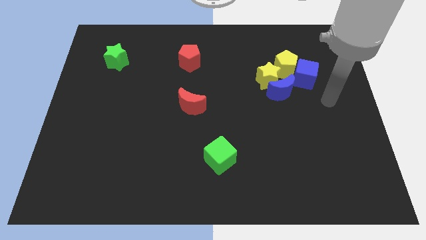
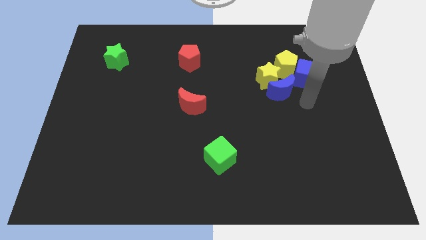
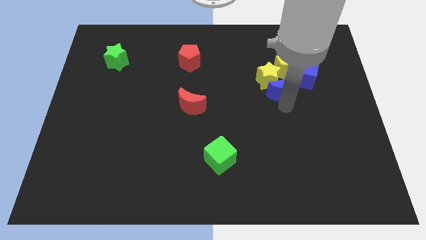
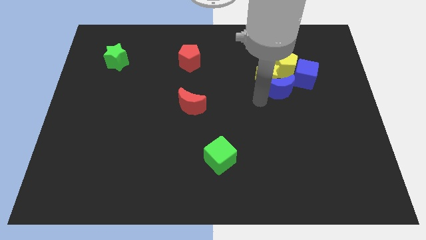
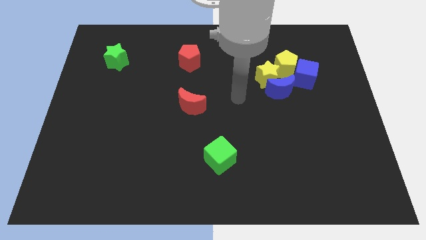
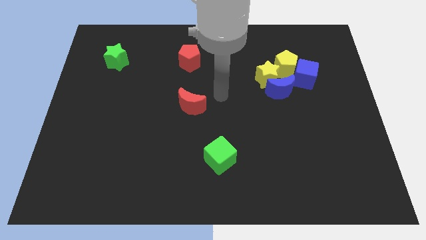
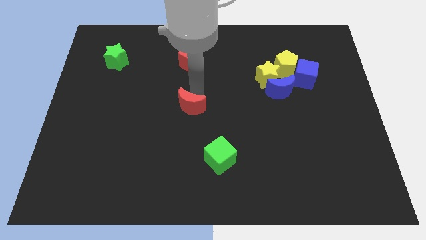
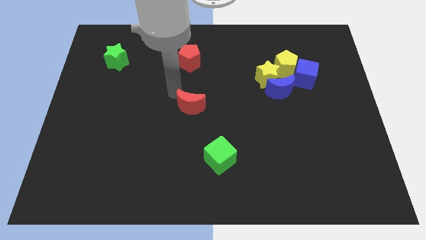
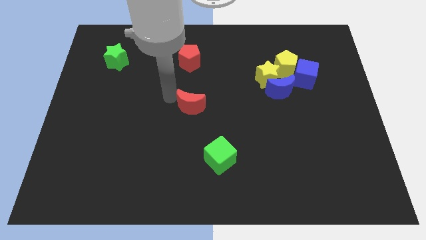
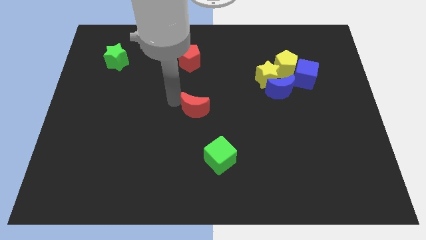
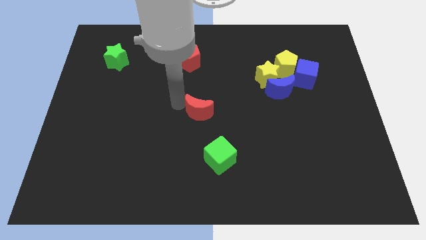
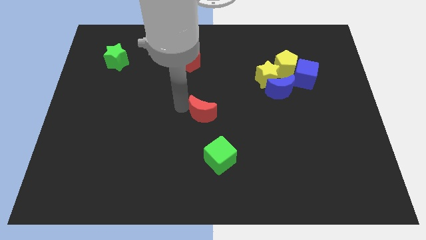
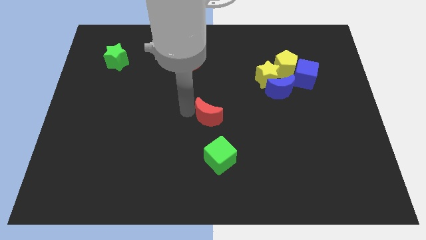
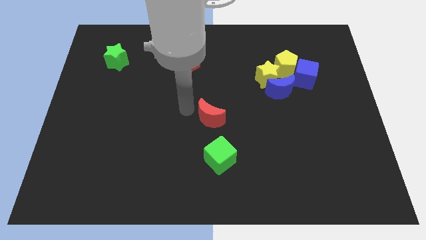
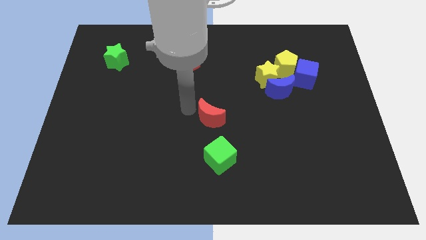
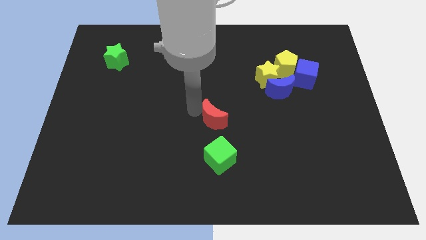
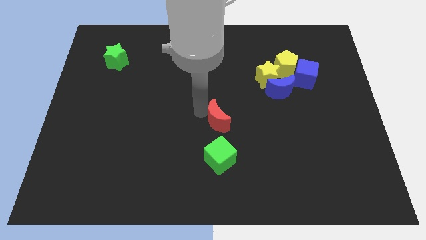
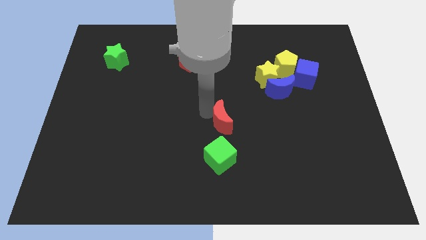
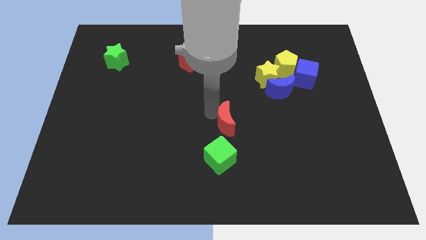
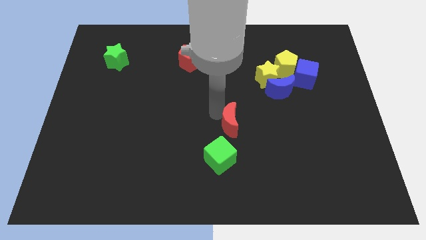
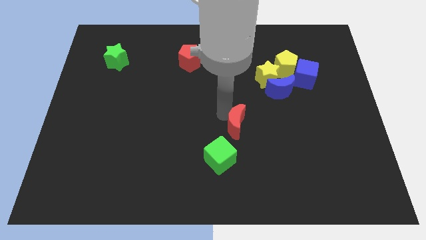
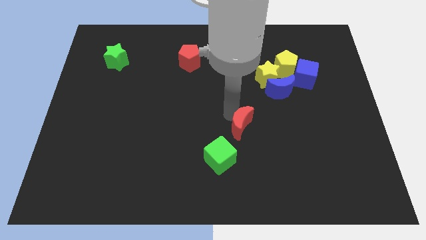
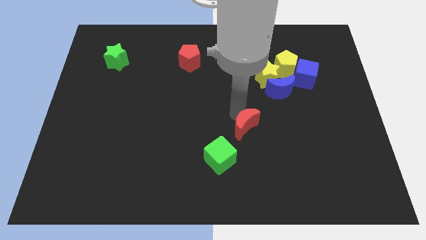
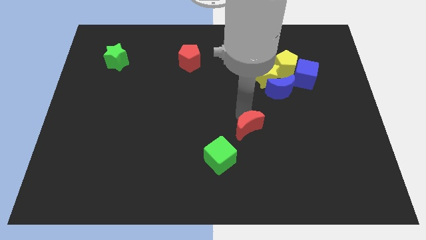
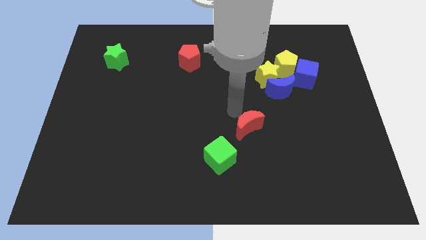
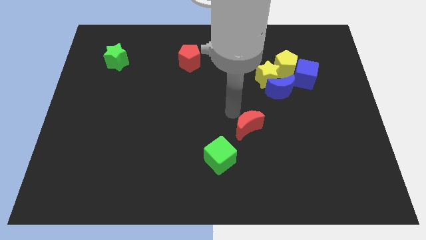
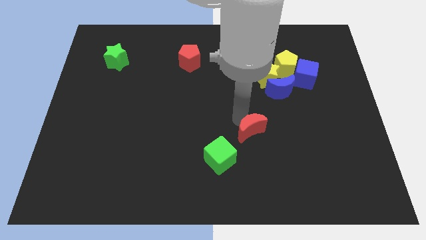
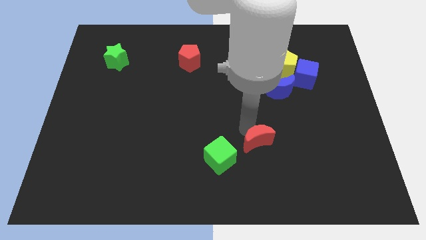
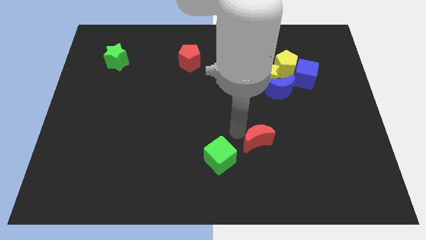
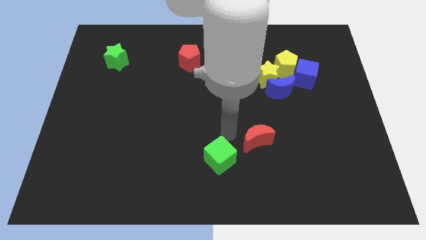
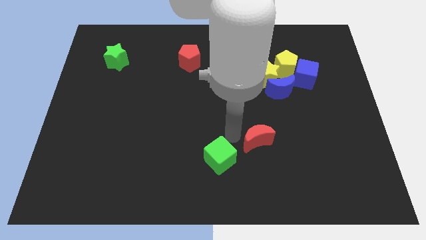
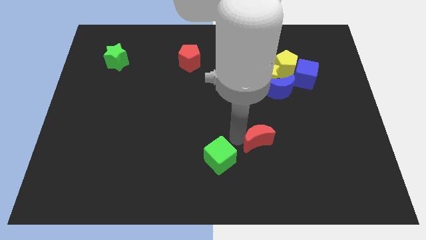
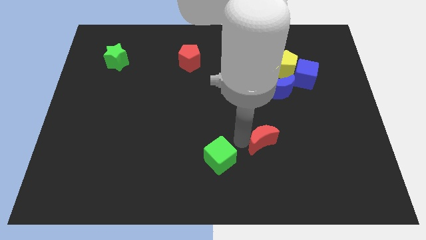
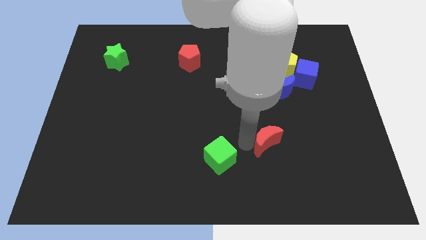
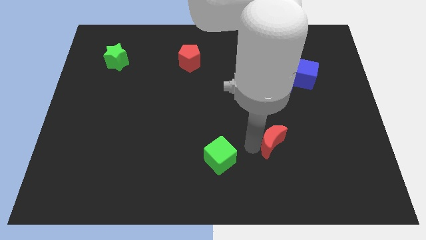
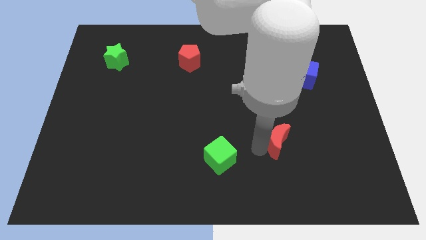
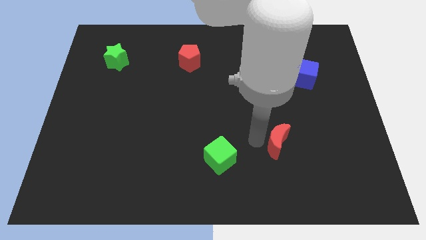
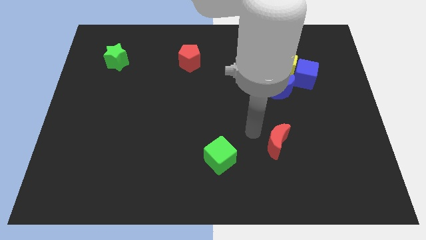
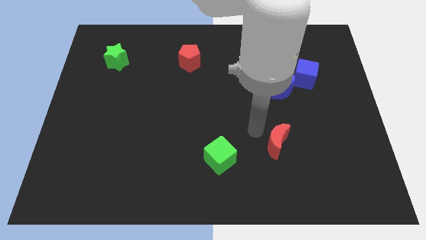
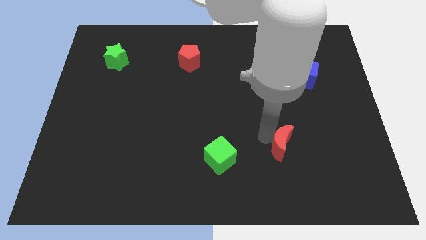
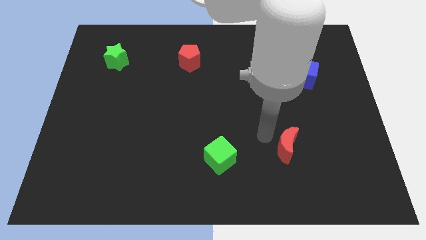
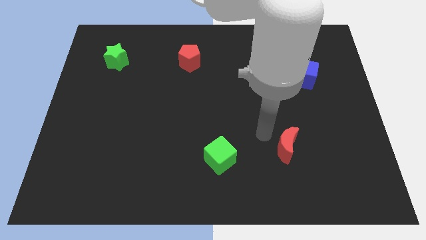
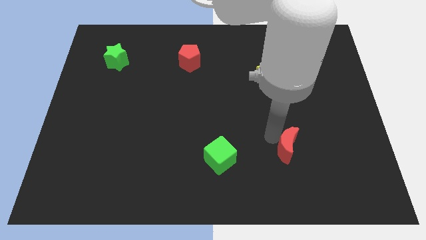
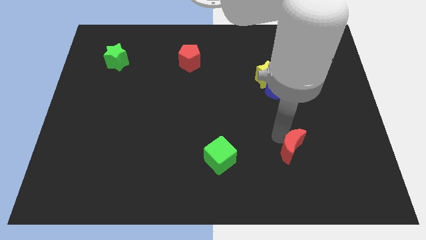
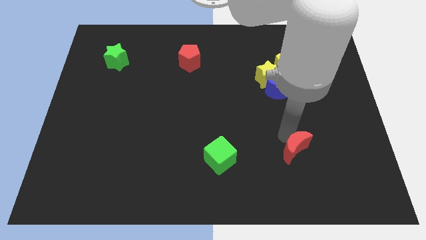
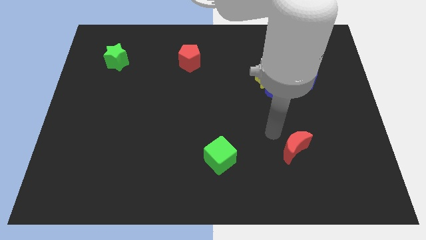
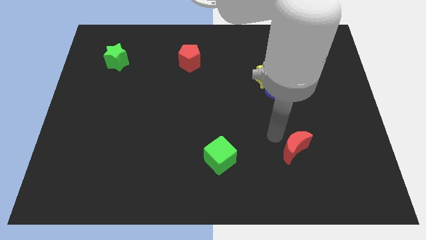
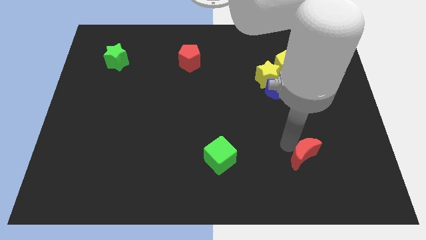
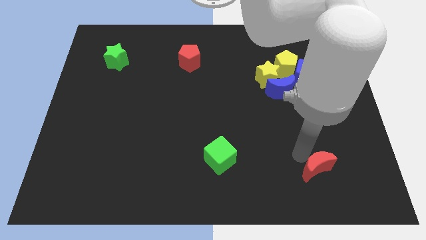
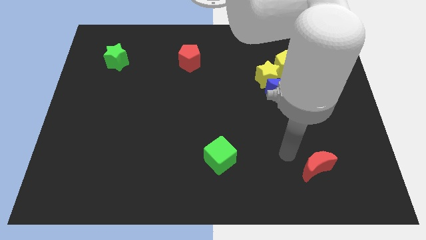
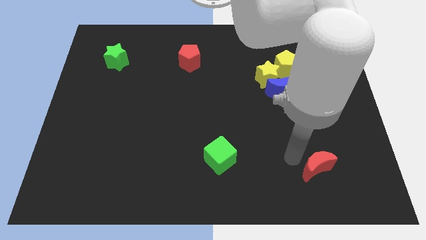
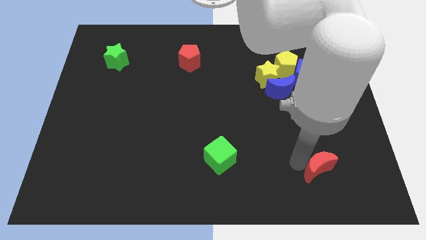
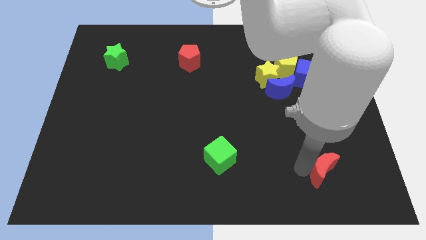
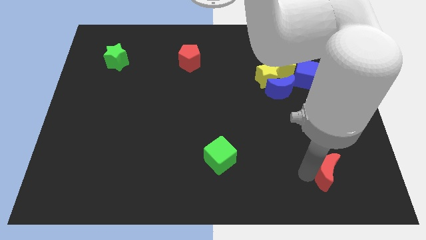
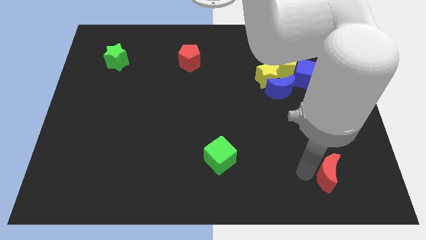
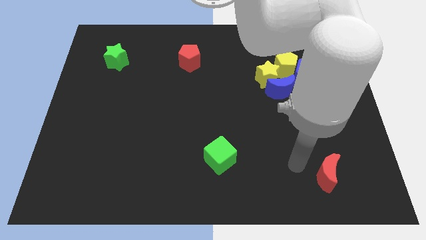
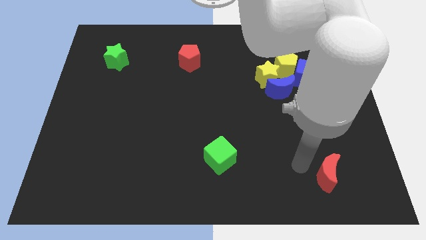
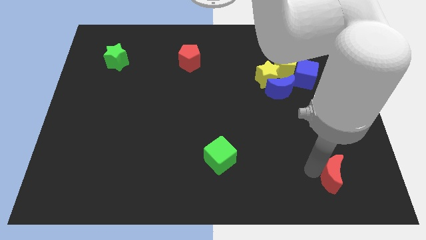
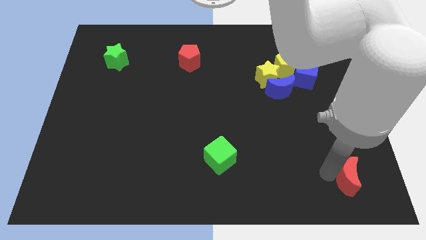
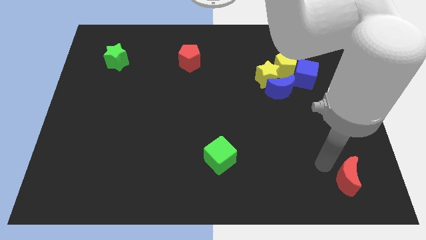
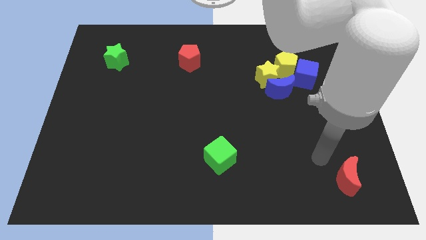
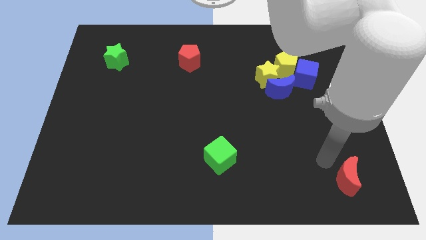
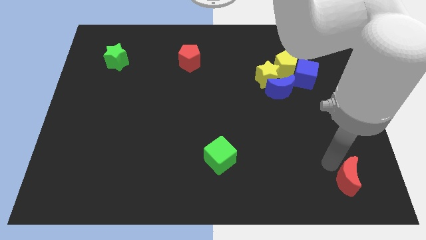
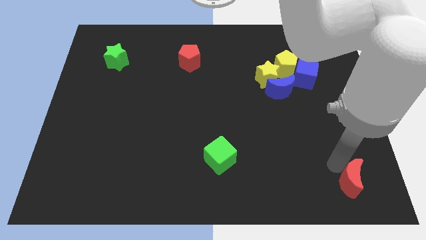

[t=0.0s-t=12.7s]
push the red moon to the bottom right of the board

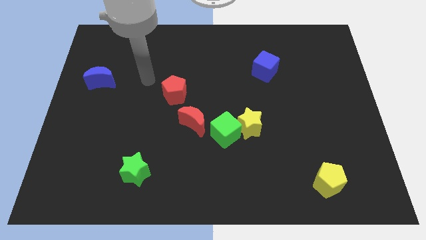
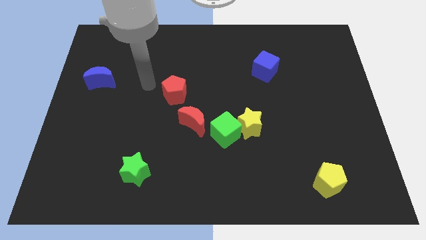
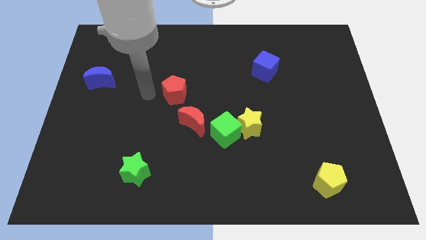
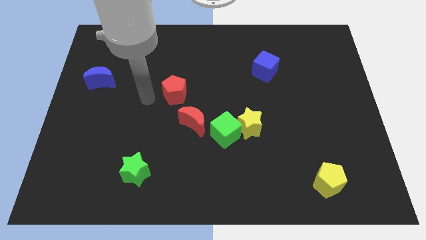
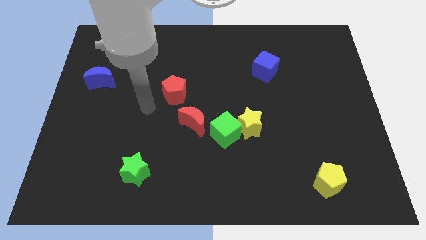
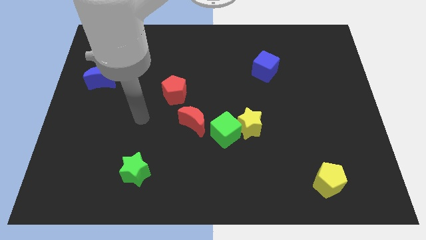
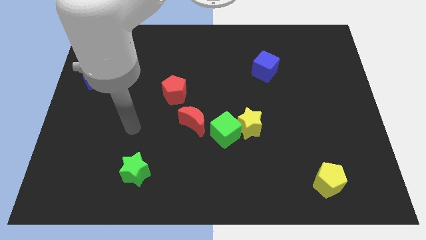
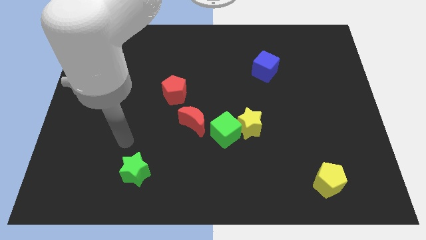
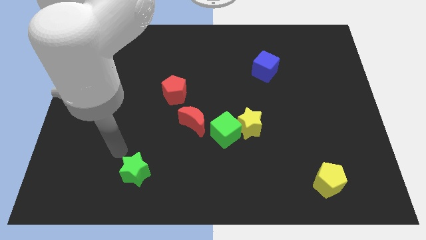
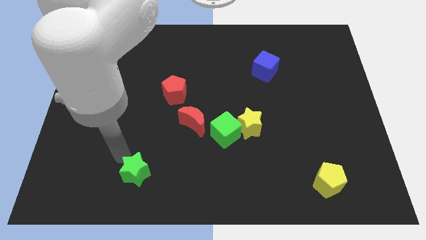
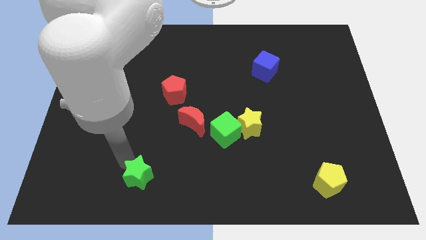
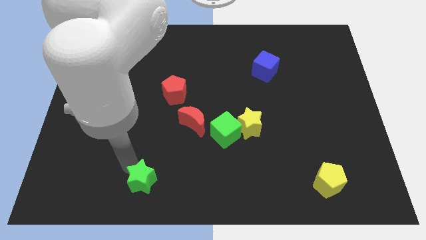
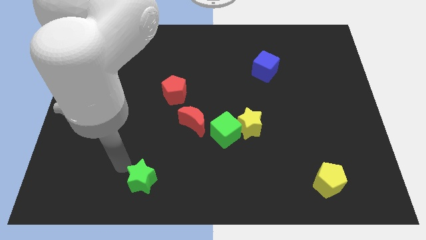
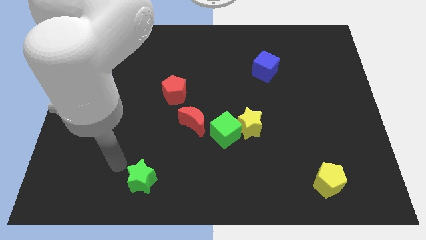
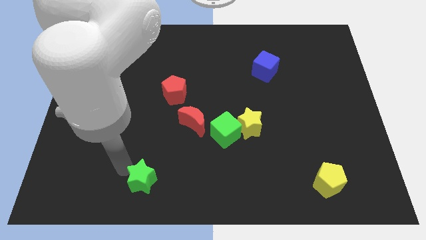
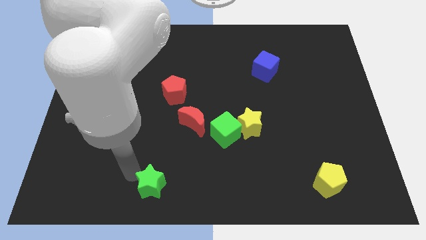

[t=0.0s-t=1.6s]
put the green star to the bottom

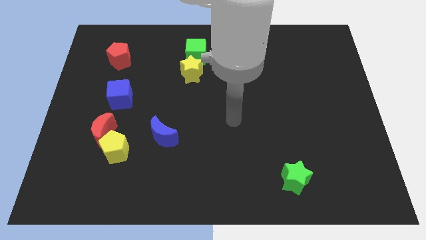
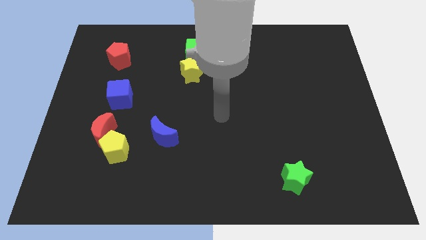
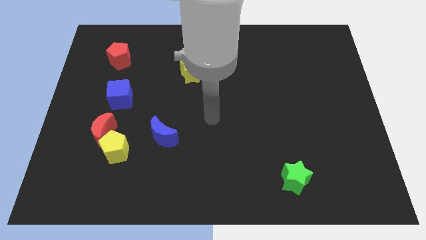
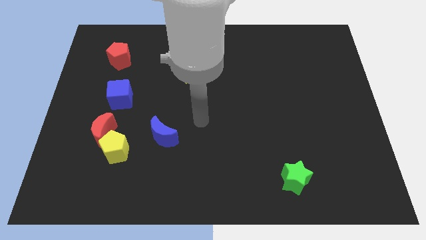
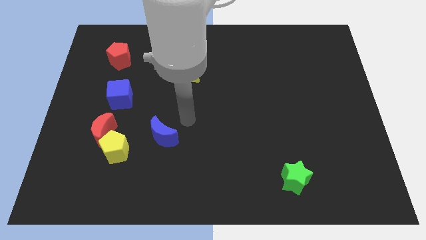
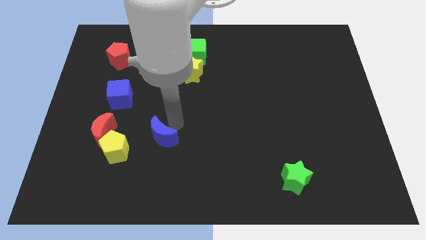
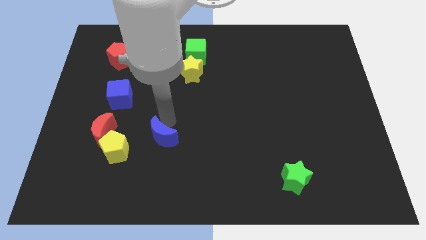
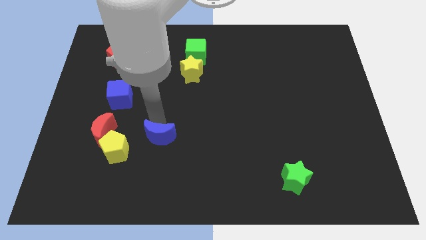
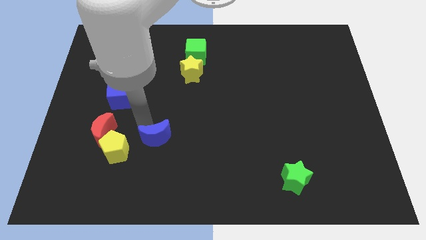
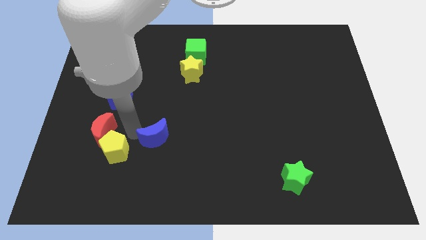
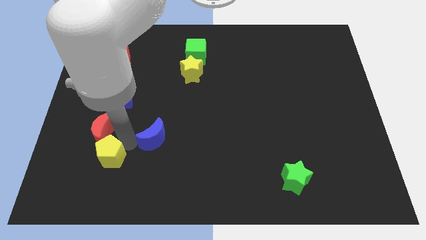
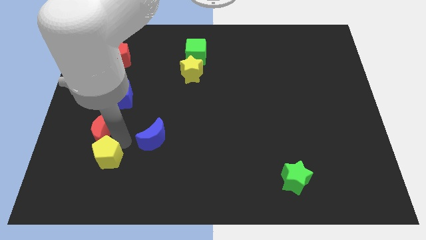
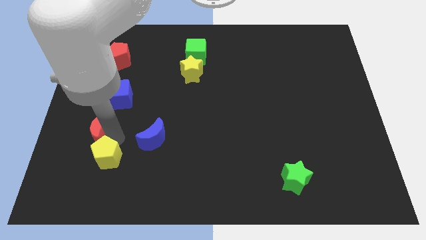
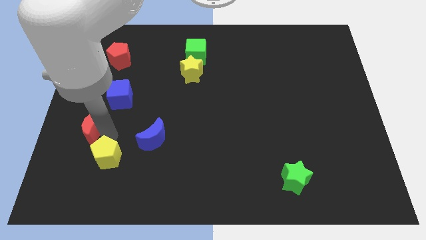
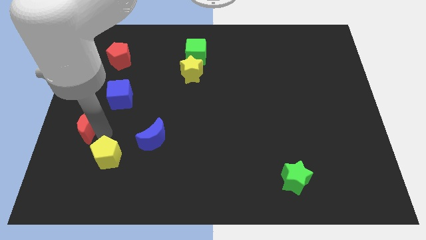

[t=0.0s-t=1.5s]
put the red moon to the left side of the board
